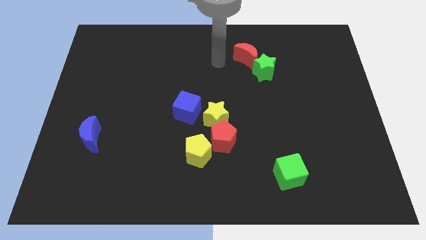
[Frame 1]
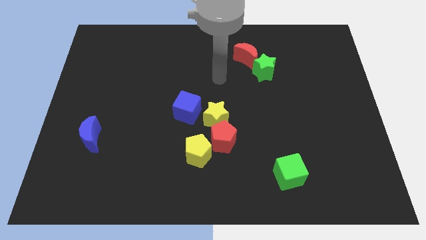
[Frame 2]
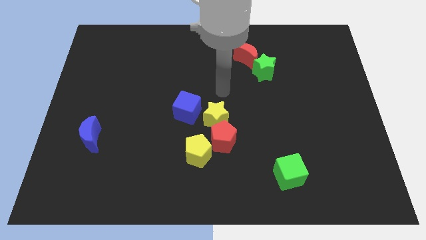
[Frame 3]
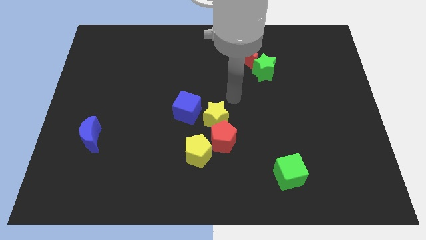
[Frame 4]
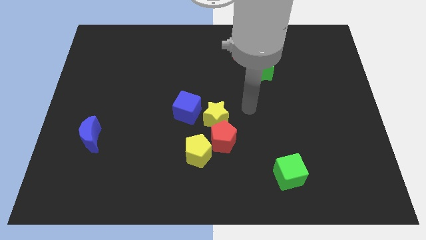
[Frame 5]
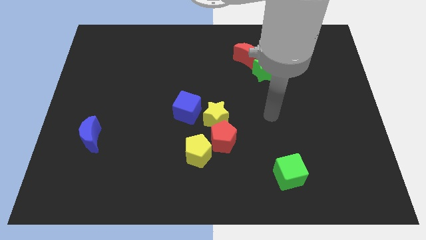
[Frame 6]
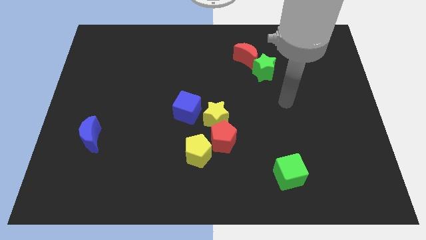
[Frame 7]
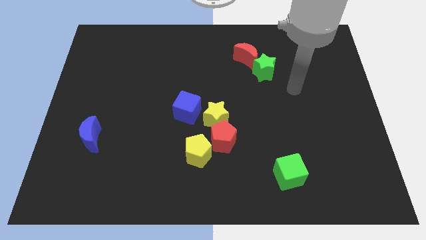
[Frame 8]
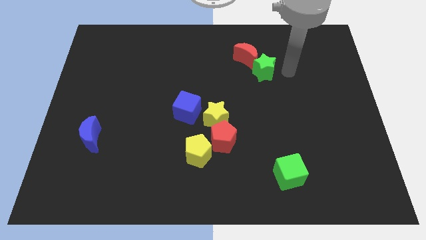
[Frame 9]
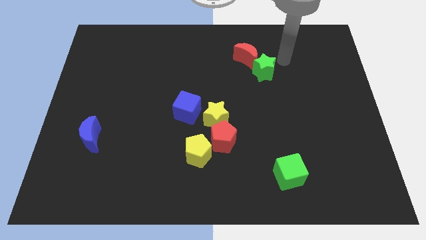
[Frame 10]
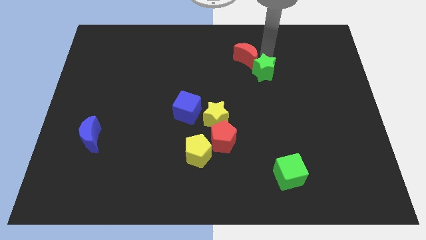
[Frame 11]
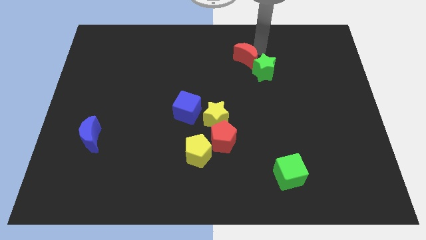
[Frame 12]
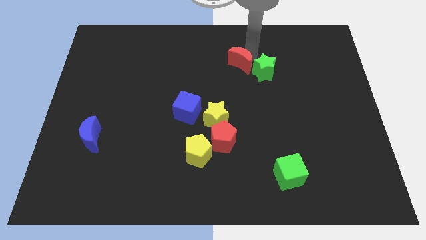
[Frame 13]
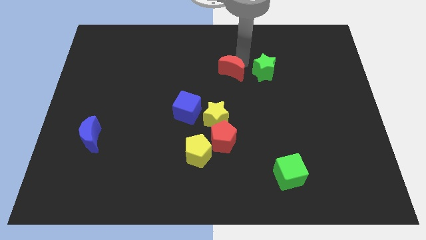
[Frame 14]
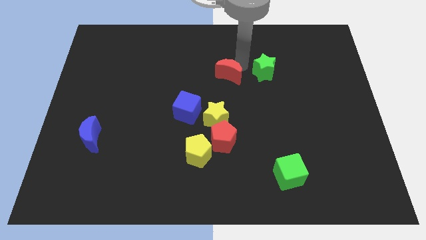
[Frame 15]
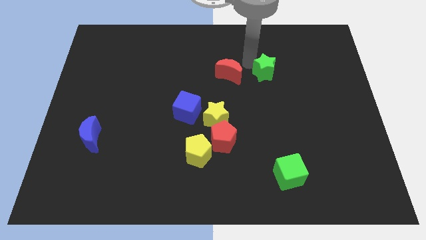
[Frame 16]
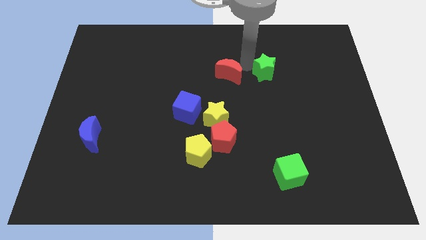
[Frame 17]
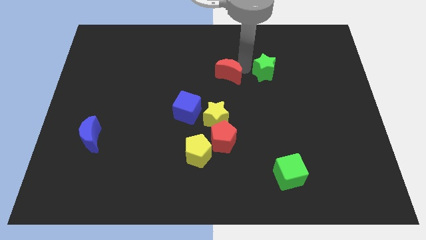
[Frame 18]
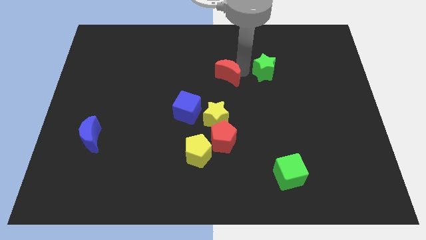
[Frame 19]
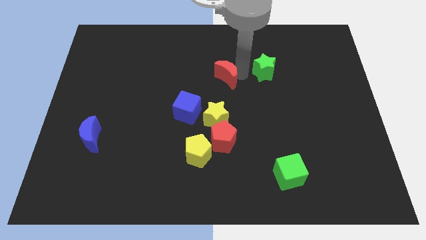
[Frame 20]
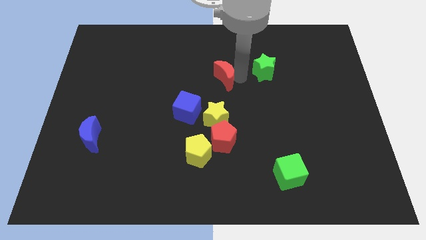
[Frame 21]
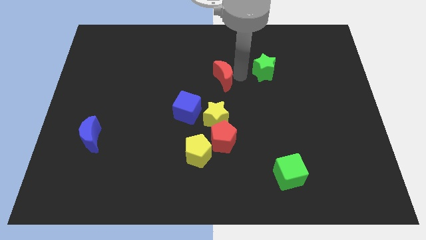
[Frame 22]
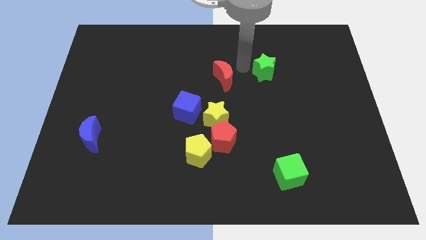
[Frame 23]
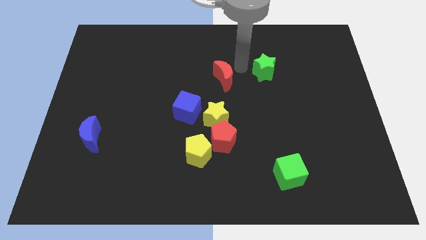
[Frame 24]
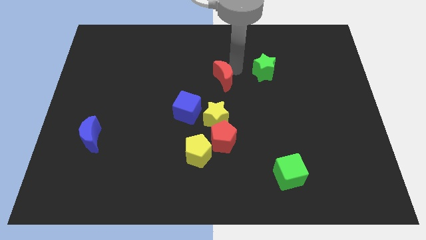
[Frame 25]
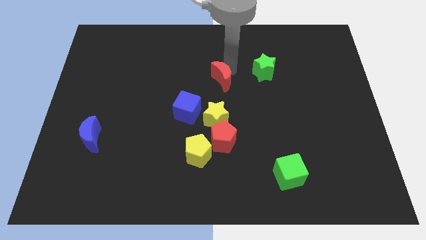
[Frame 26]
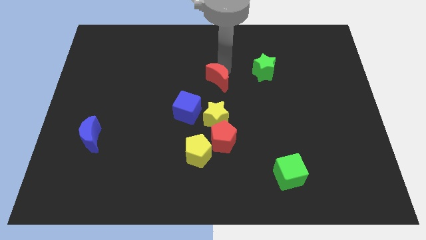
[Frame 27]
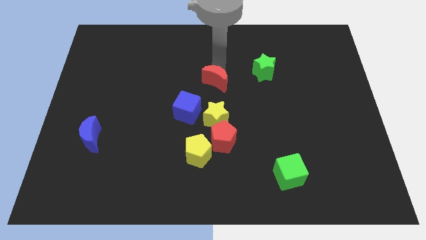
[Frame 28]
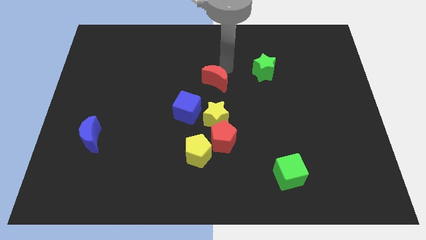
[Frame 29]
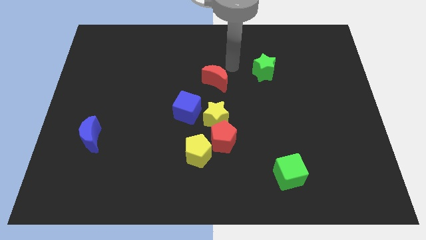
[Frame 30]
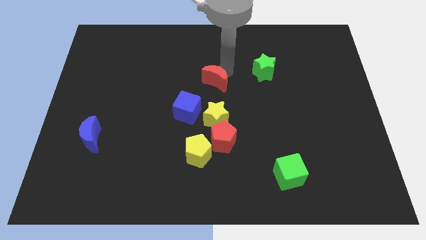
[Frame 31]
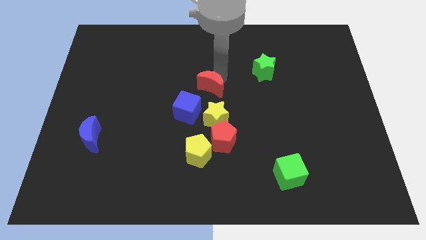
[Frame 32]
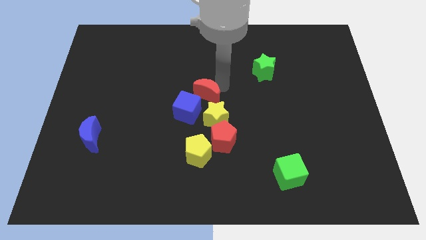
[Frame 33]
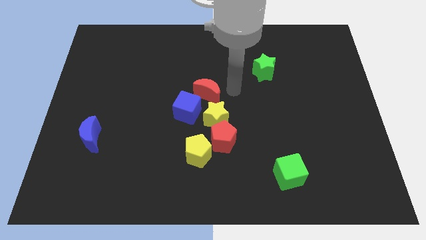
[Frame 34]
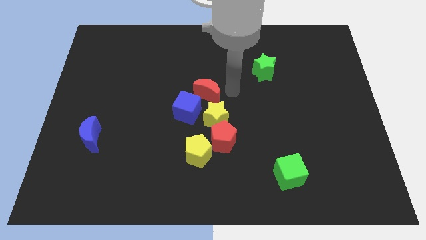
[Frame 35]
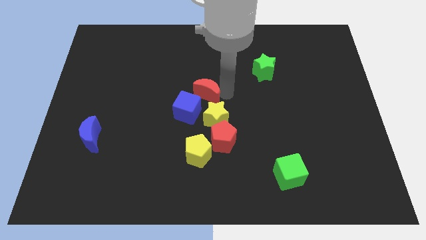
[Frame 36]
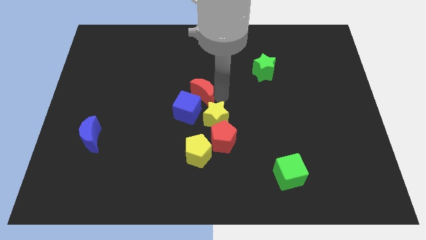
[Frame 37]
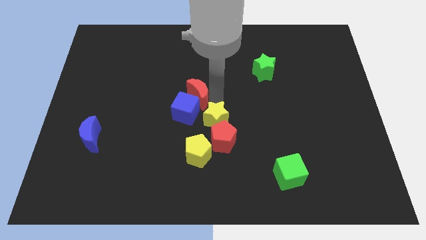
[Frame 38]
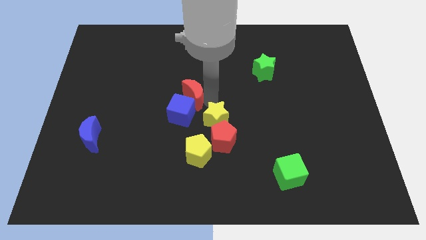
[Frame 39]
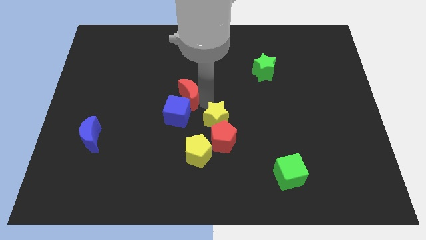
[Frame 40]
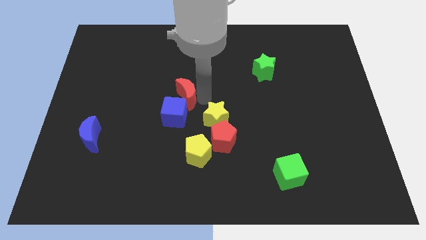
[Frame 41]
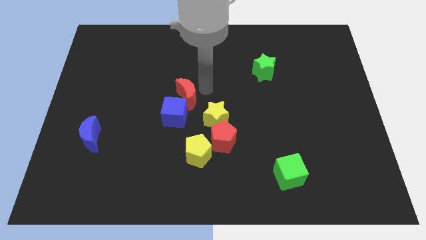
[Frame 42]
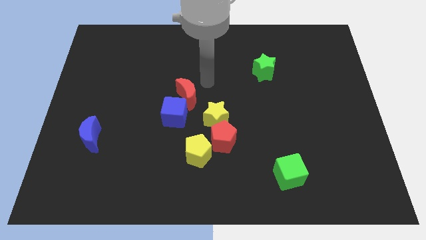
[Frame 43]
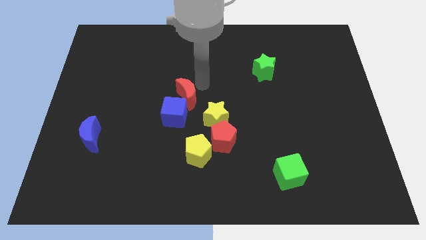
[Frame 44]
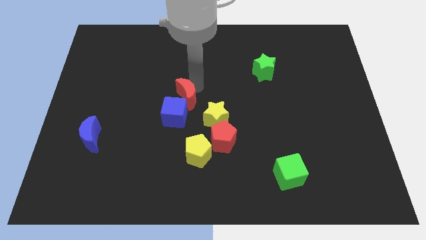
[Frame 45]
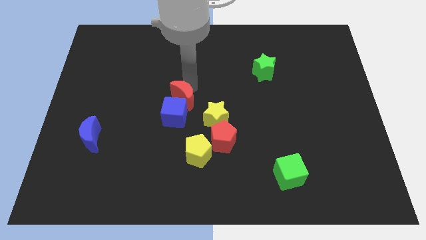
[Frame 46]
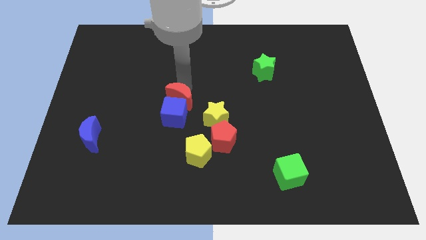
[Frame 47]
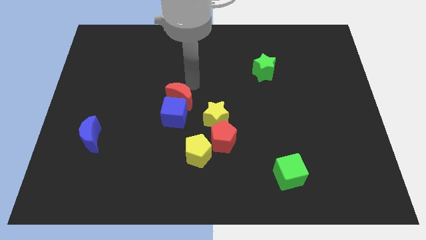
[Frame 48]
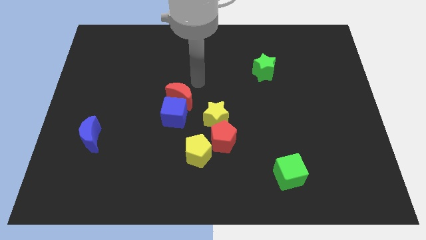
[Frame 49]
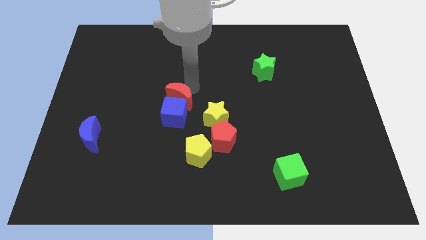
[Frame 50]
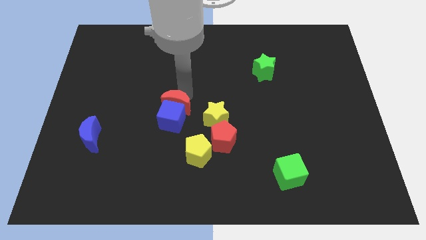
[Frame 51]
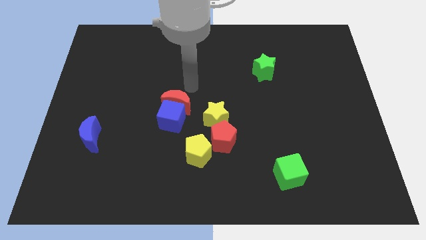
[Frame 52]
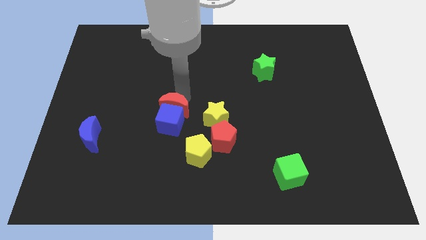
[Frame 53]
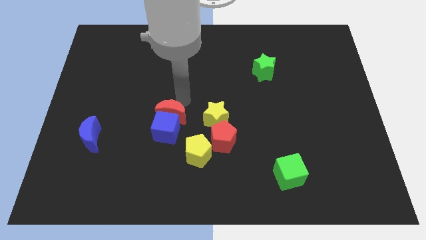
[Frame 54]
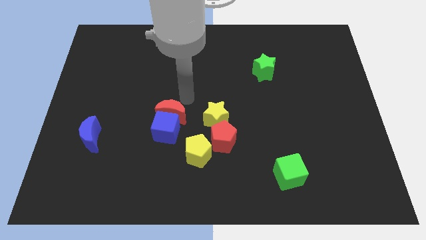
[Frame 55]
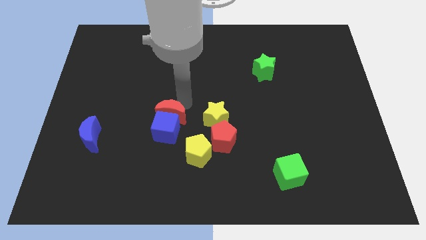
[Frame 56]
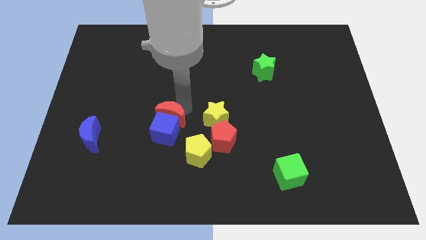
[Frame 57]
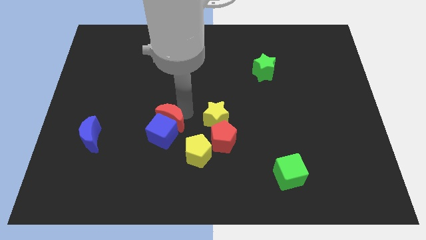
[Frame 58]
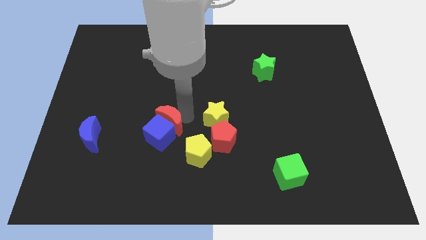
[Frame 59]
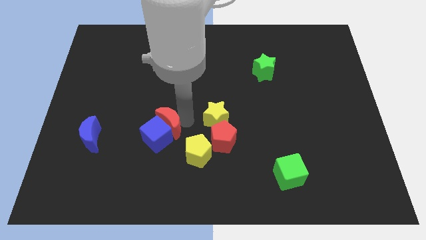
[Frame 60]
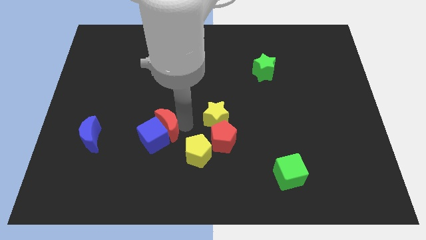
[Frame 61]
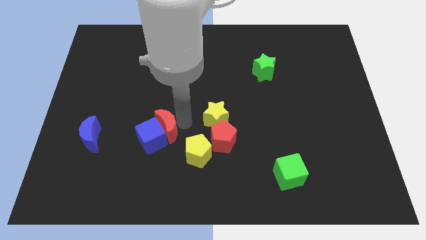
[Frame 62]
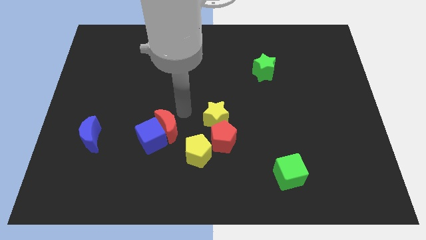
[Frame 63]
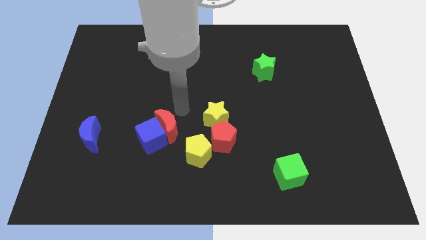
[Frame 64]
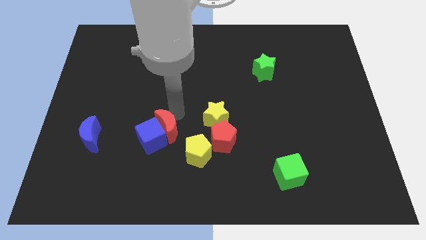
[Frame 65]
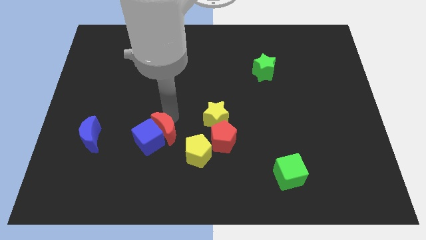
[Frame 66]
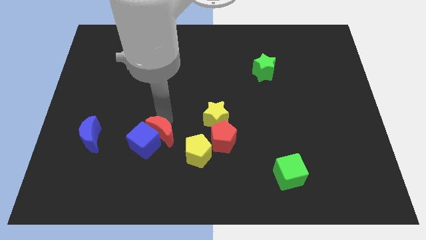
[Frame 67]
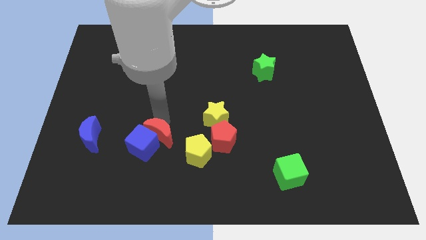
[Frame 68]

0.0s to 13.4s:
put the red moon left of the yellow pentagon

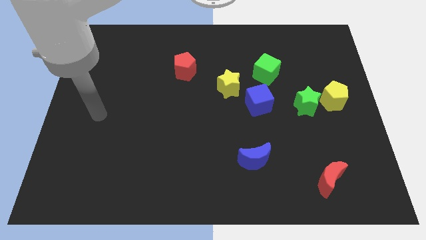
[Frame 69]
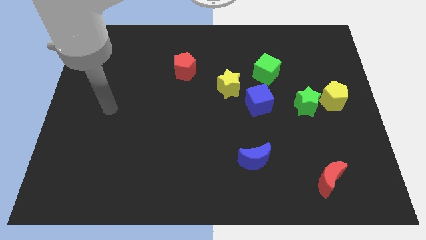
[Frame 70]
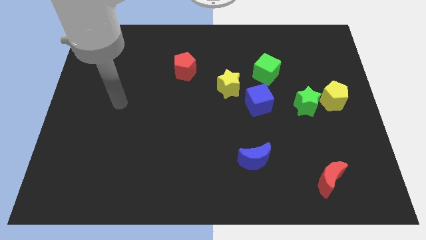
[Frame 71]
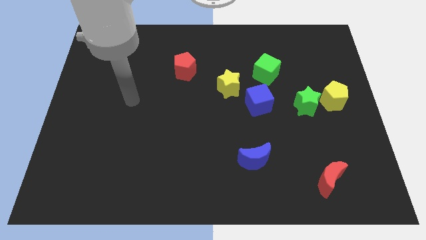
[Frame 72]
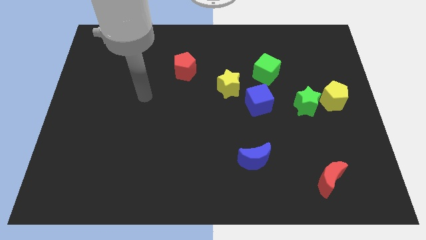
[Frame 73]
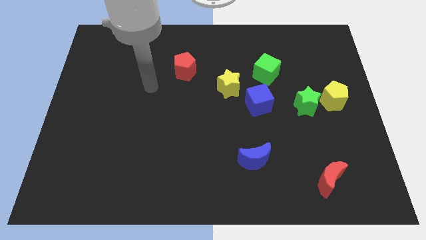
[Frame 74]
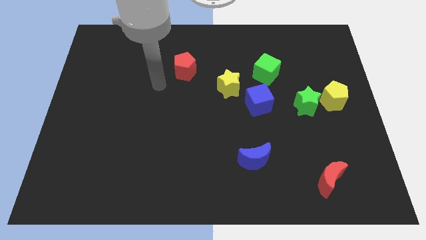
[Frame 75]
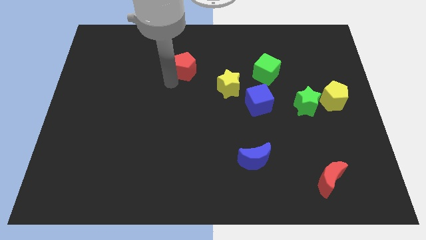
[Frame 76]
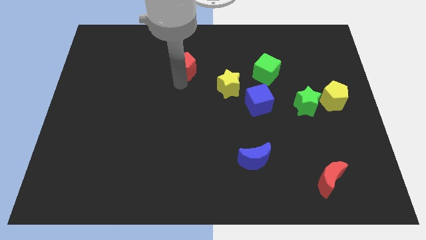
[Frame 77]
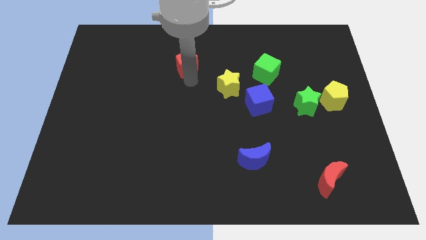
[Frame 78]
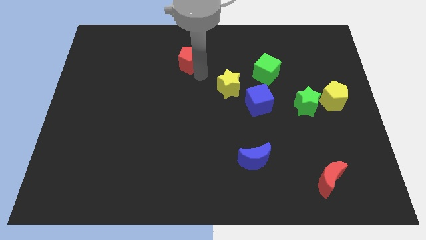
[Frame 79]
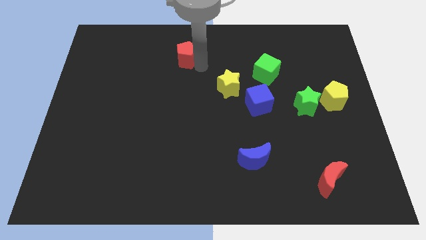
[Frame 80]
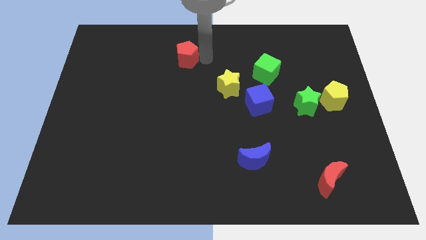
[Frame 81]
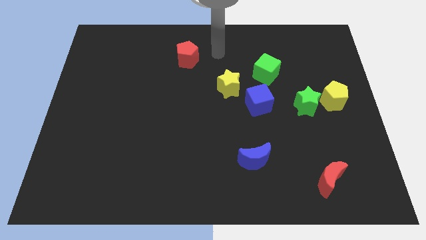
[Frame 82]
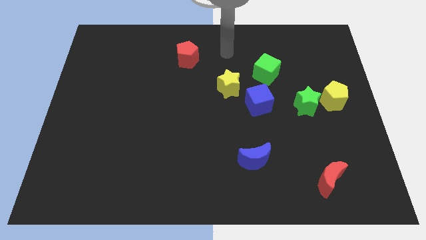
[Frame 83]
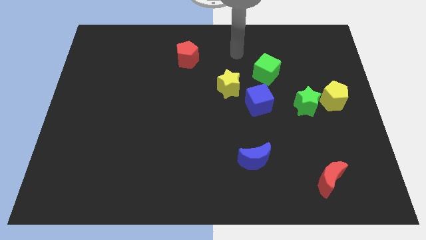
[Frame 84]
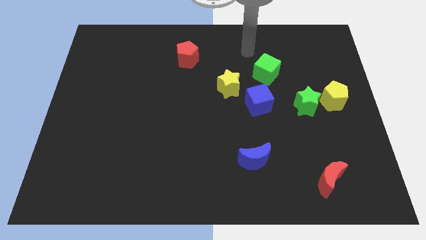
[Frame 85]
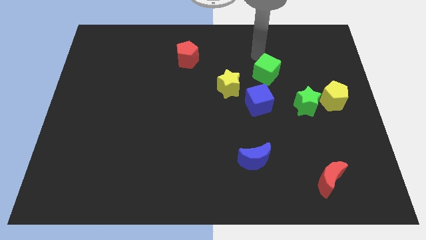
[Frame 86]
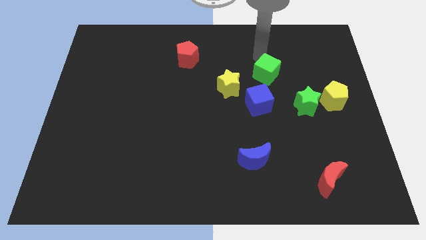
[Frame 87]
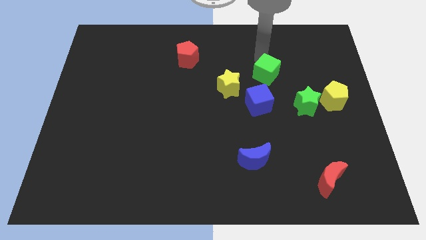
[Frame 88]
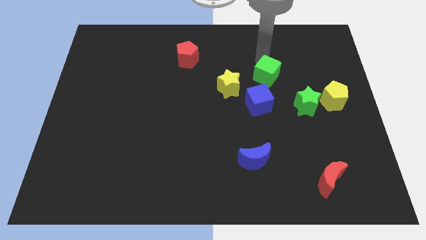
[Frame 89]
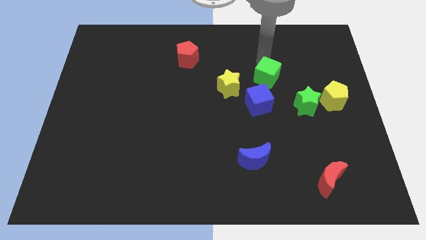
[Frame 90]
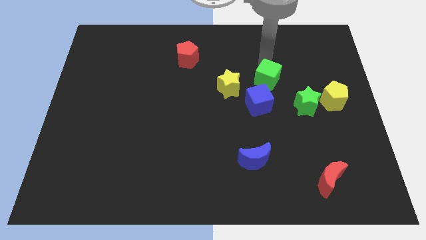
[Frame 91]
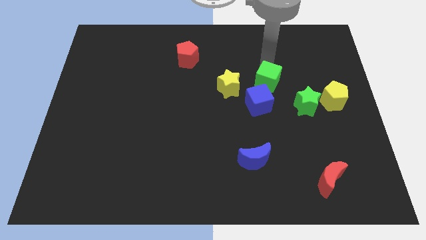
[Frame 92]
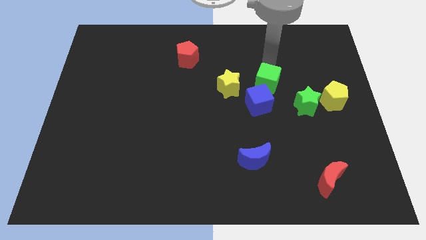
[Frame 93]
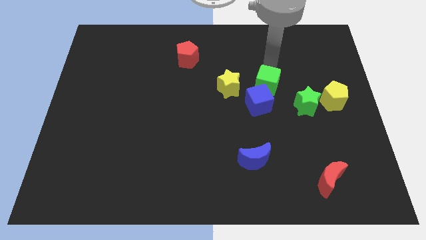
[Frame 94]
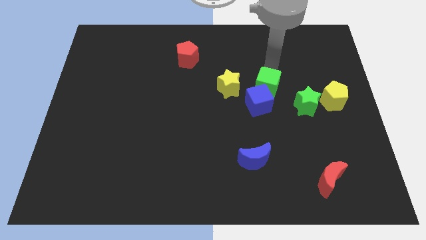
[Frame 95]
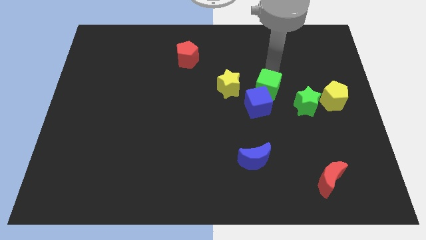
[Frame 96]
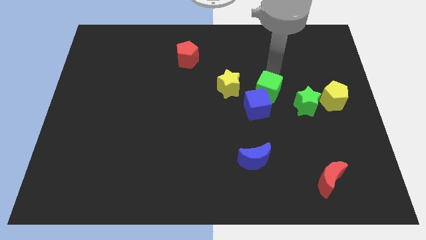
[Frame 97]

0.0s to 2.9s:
slide the green cube left of the yellow pentagon
